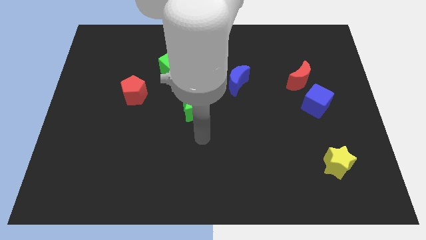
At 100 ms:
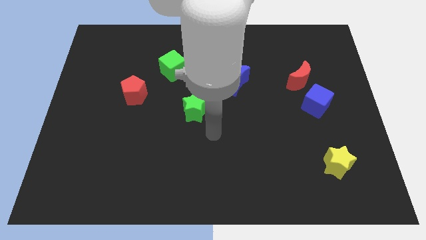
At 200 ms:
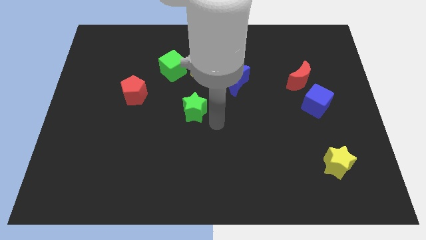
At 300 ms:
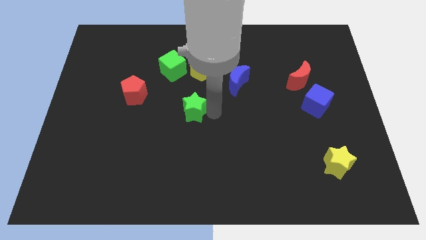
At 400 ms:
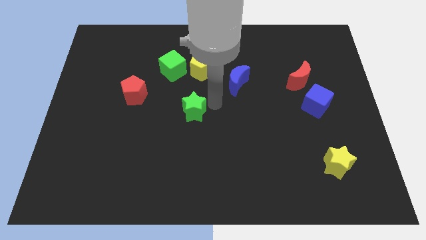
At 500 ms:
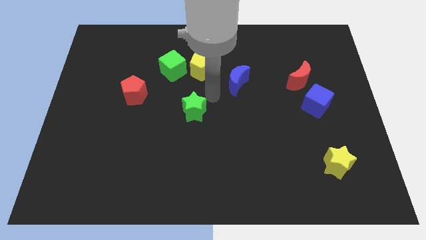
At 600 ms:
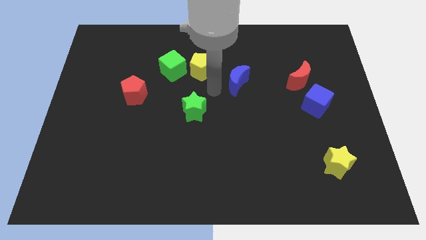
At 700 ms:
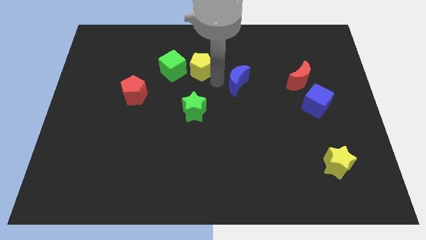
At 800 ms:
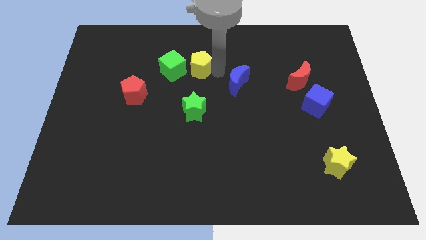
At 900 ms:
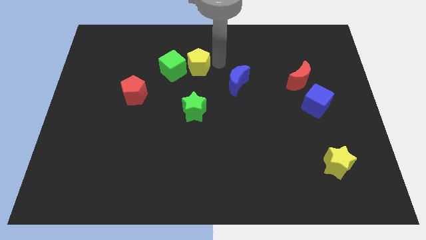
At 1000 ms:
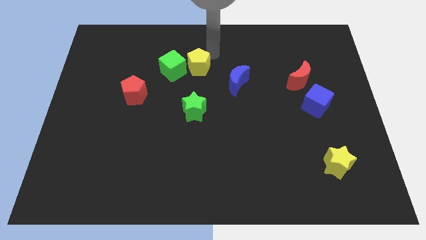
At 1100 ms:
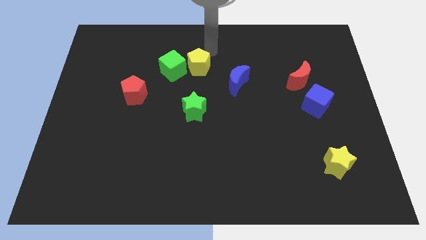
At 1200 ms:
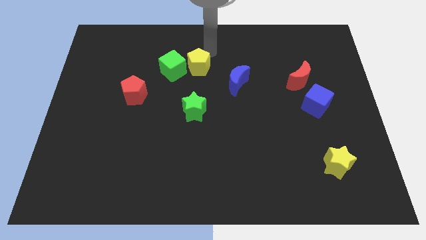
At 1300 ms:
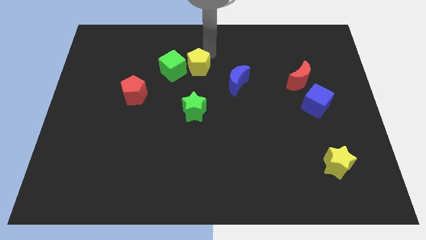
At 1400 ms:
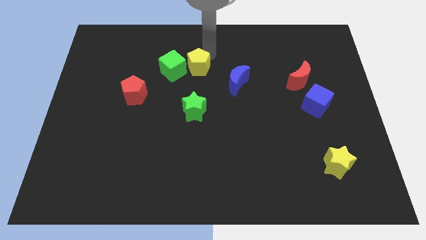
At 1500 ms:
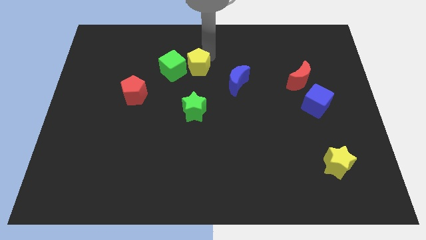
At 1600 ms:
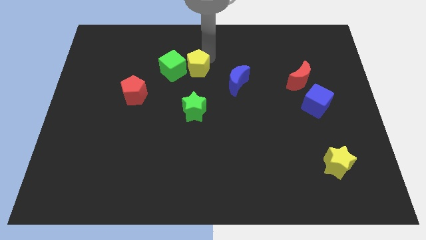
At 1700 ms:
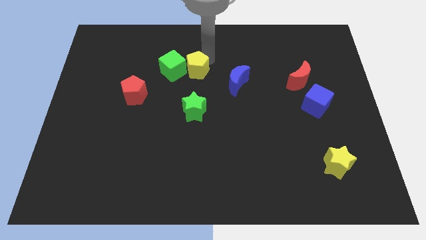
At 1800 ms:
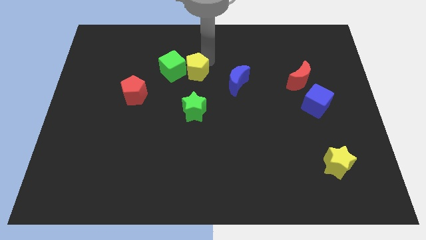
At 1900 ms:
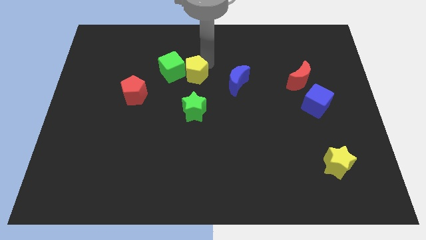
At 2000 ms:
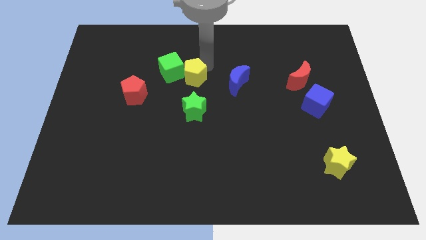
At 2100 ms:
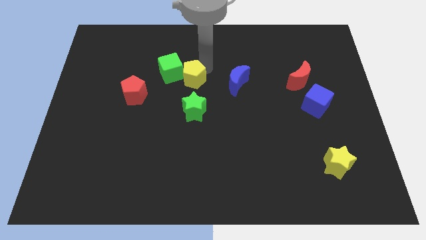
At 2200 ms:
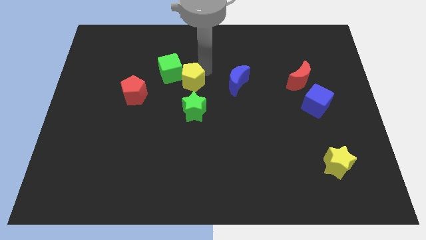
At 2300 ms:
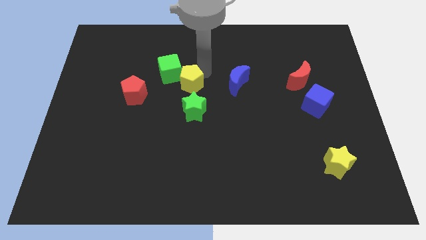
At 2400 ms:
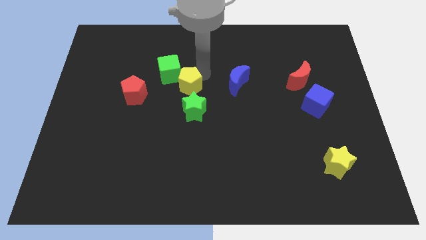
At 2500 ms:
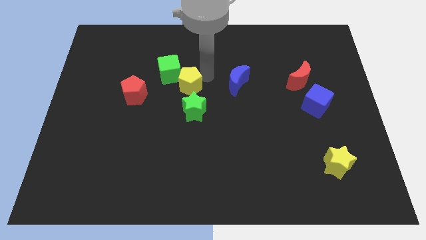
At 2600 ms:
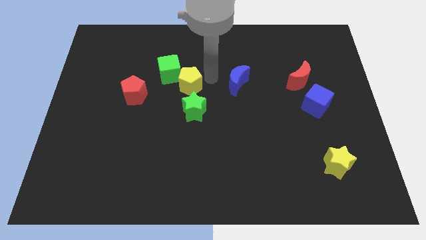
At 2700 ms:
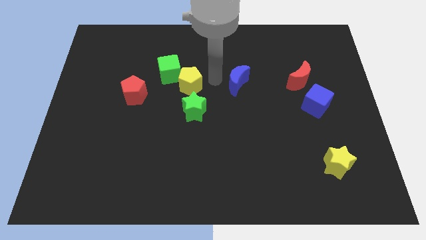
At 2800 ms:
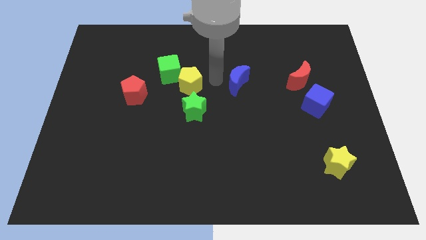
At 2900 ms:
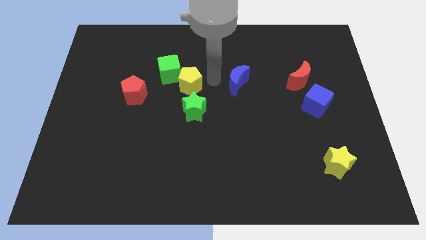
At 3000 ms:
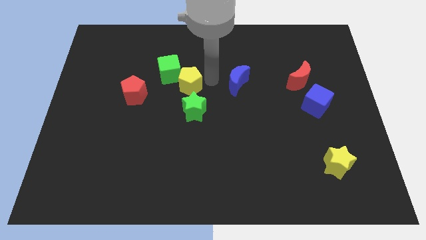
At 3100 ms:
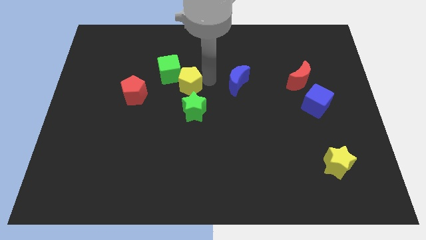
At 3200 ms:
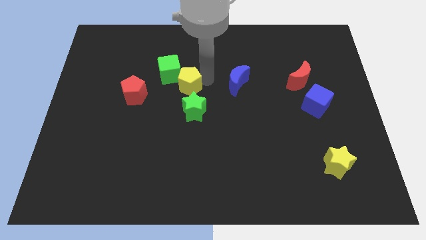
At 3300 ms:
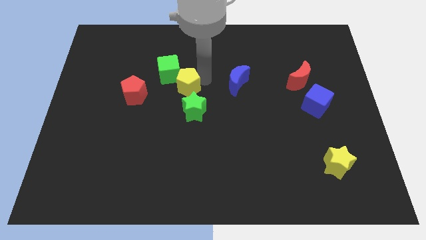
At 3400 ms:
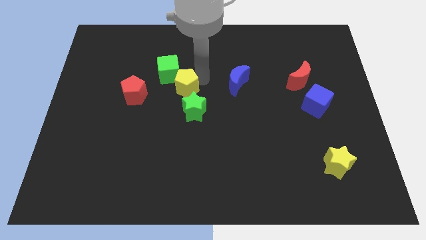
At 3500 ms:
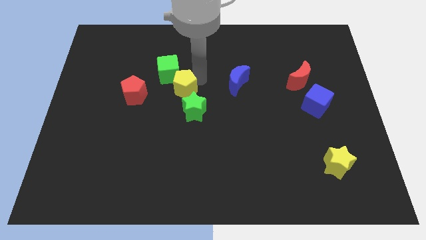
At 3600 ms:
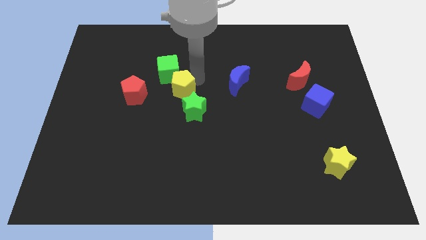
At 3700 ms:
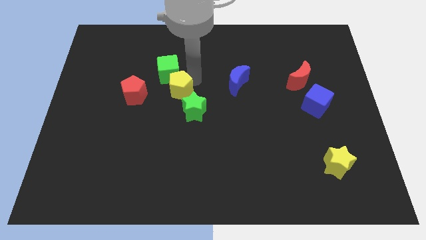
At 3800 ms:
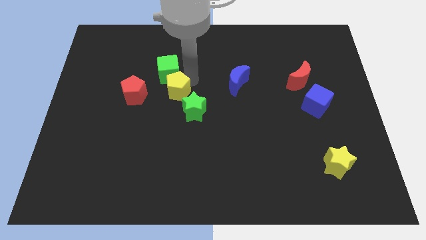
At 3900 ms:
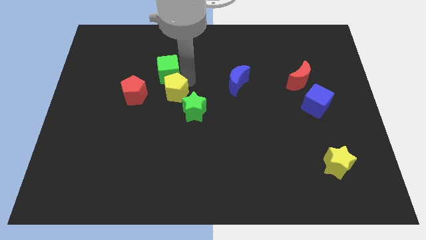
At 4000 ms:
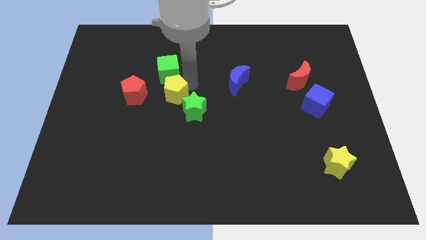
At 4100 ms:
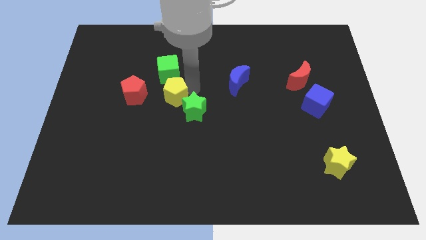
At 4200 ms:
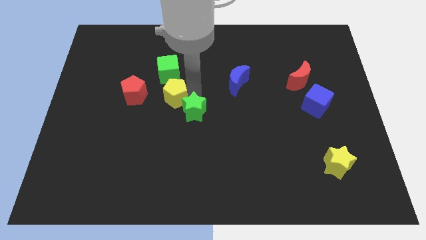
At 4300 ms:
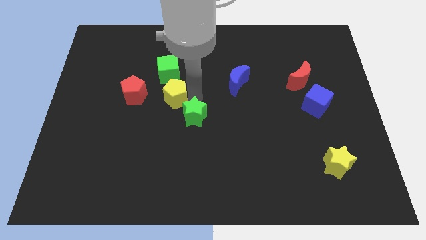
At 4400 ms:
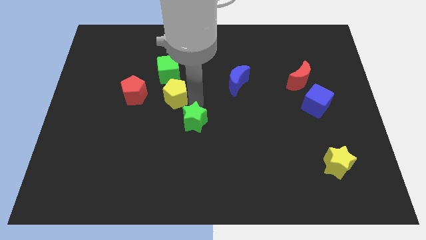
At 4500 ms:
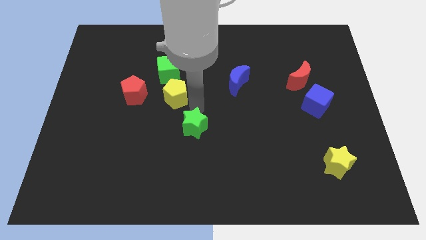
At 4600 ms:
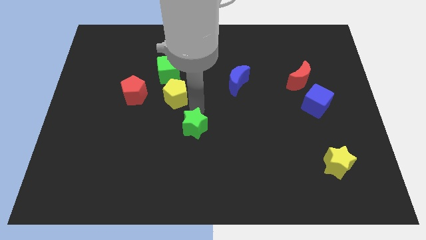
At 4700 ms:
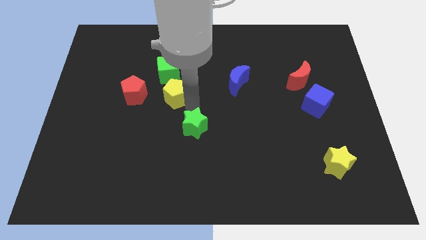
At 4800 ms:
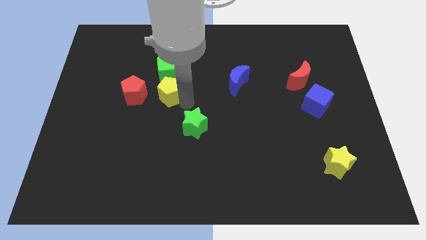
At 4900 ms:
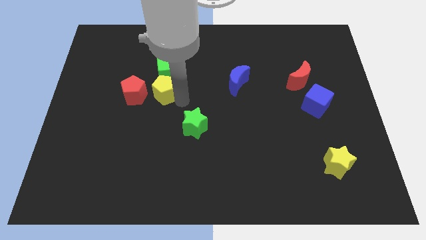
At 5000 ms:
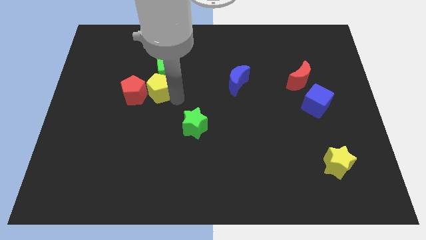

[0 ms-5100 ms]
move the yellow pentagon next to the red pentagon

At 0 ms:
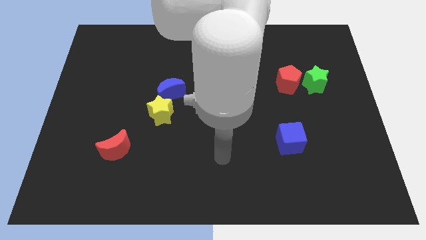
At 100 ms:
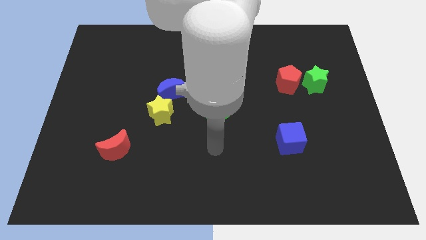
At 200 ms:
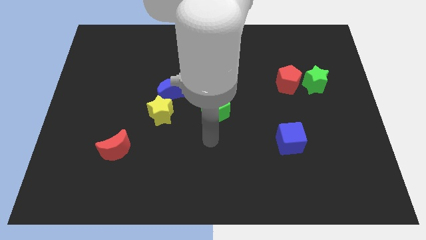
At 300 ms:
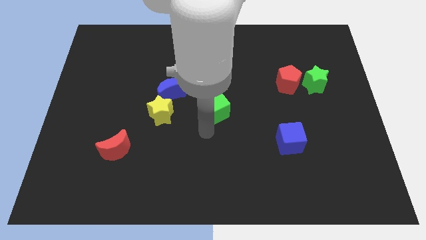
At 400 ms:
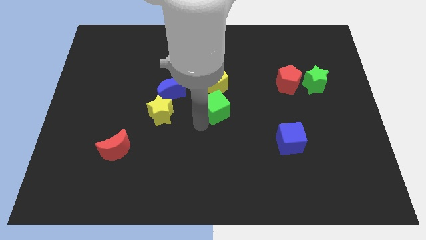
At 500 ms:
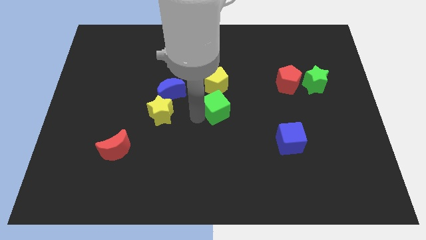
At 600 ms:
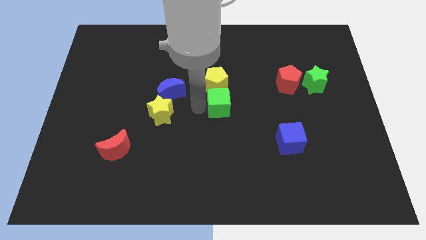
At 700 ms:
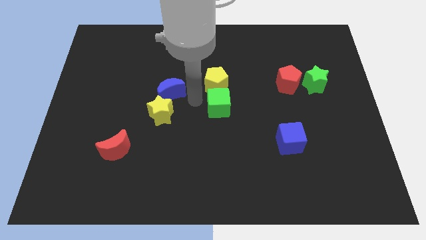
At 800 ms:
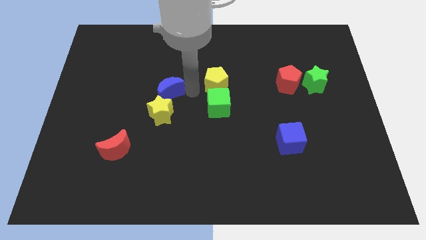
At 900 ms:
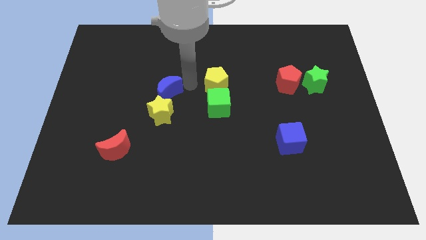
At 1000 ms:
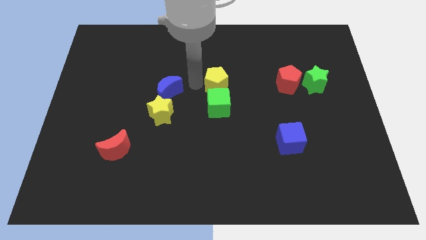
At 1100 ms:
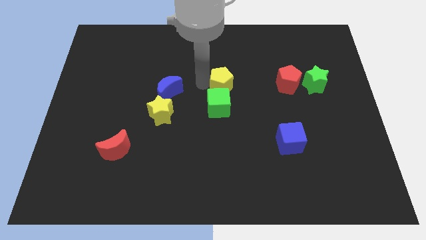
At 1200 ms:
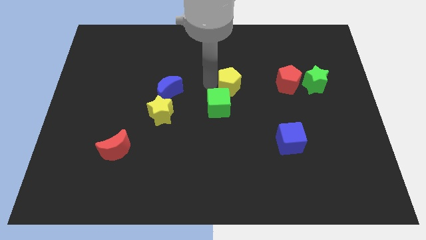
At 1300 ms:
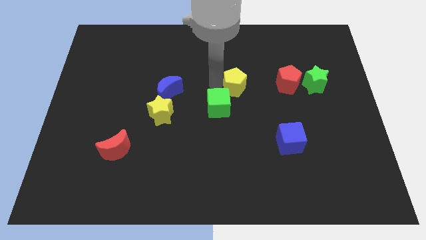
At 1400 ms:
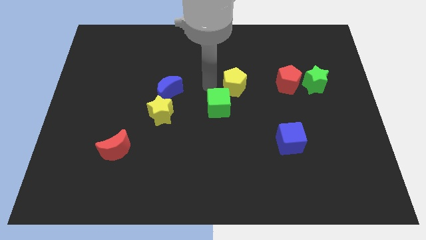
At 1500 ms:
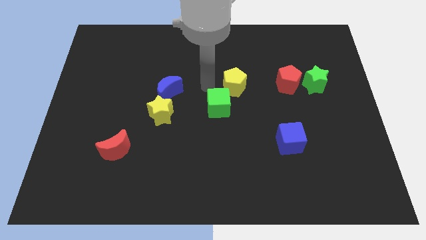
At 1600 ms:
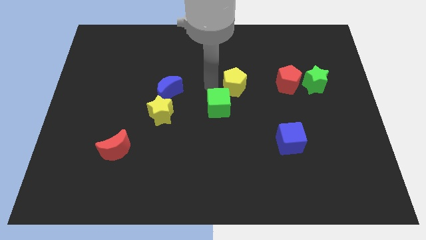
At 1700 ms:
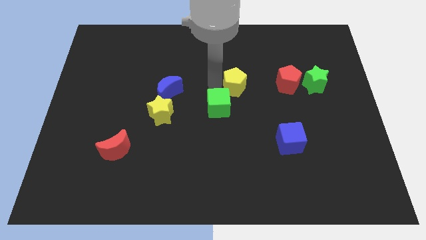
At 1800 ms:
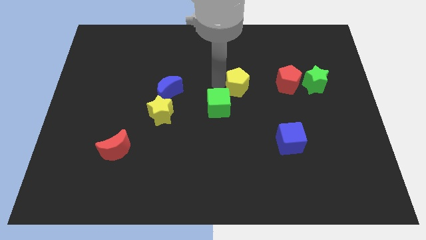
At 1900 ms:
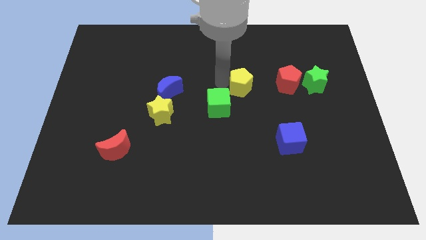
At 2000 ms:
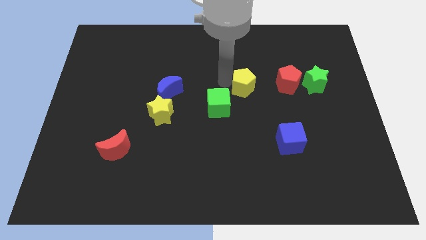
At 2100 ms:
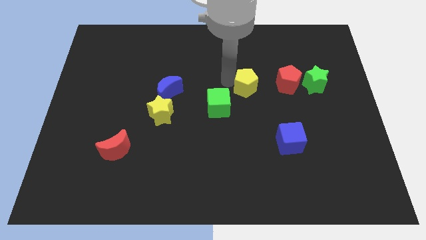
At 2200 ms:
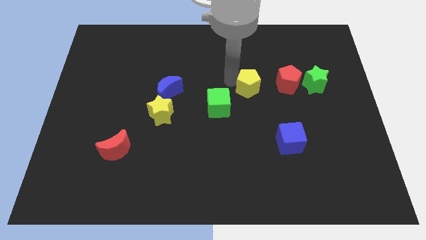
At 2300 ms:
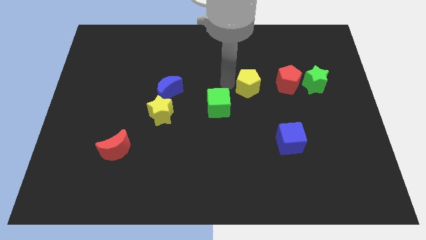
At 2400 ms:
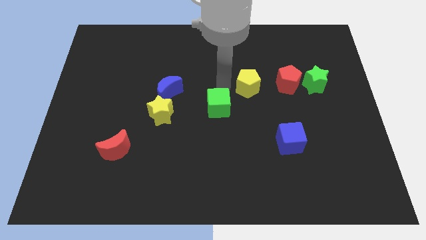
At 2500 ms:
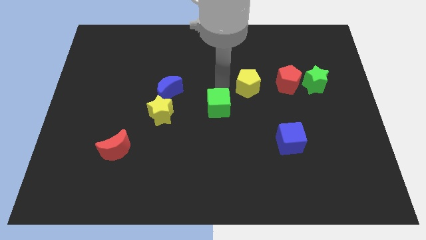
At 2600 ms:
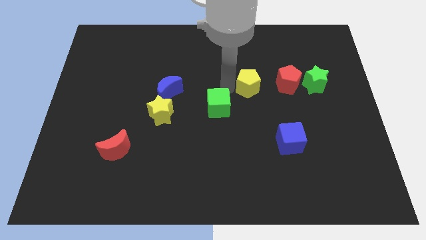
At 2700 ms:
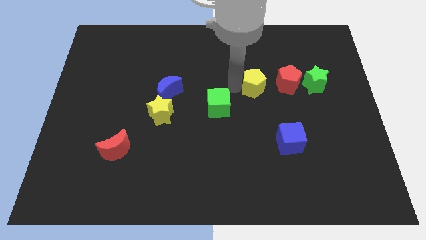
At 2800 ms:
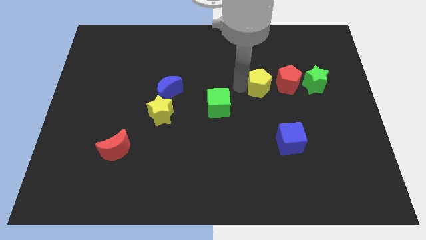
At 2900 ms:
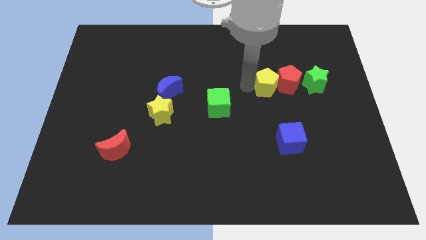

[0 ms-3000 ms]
put the yellow pentagon close to the red pentagon
